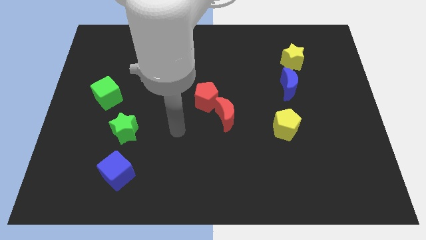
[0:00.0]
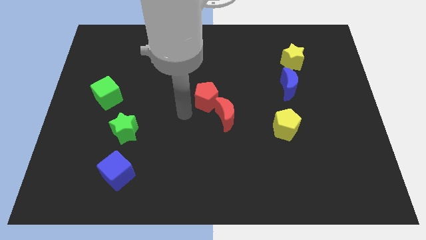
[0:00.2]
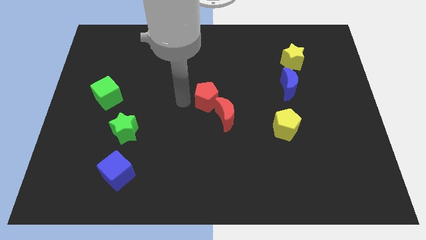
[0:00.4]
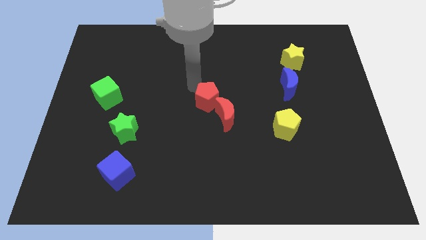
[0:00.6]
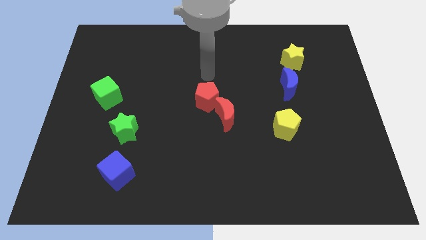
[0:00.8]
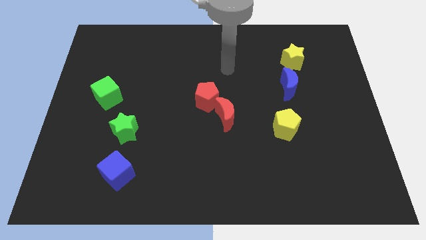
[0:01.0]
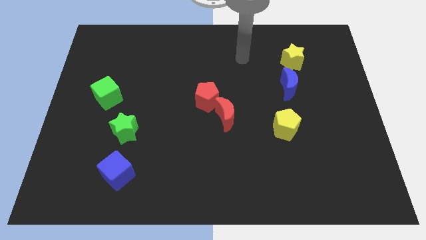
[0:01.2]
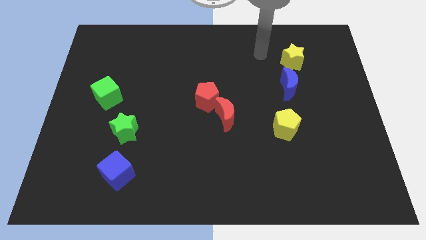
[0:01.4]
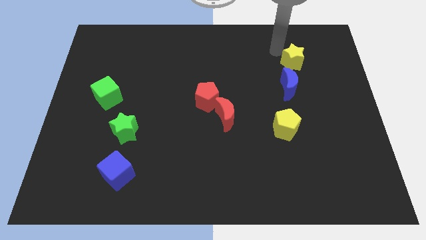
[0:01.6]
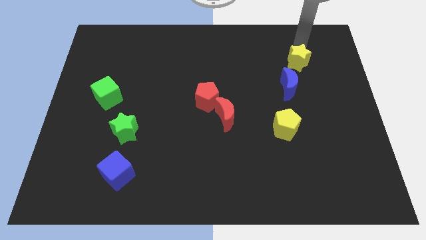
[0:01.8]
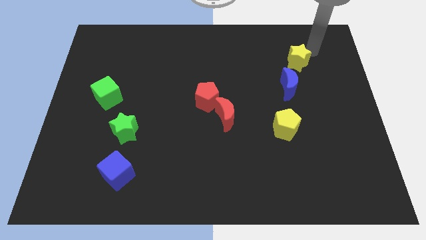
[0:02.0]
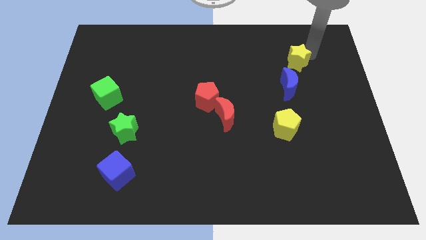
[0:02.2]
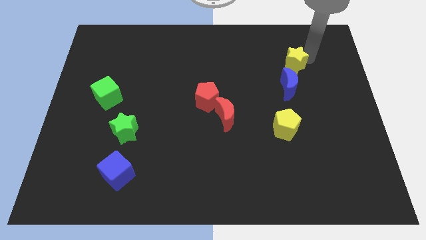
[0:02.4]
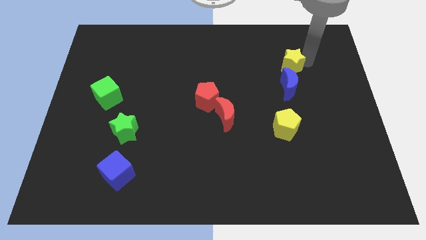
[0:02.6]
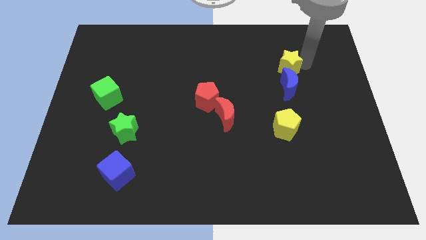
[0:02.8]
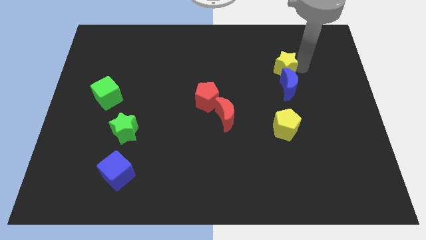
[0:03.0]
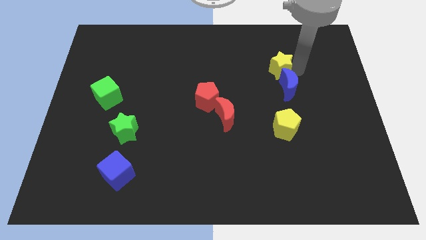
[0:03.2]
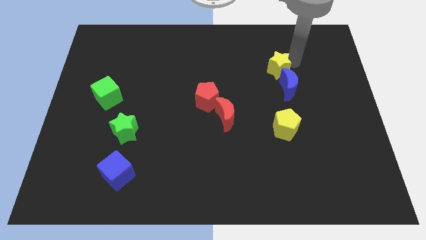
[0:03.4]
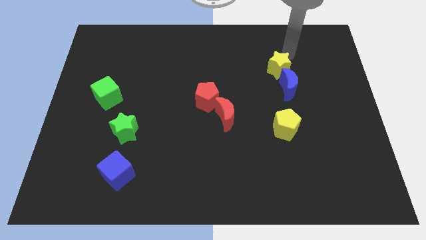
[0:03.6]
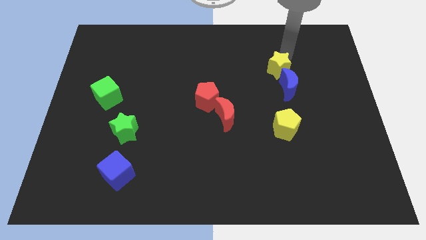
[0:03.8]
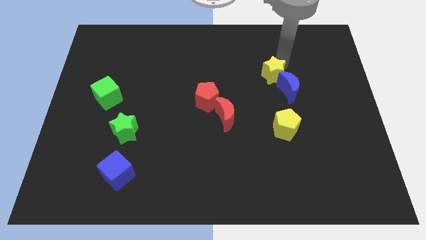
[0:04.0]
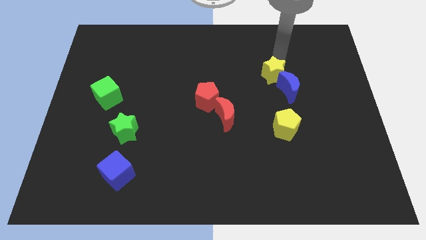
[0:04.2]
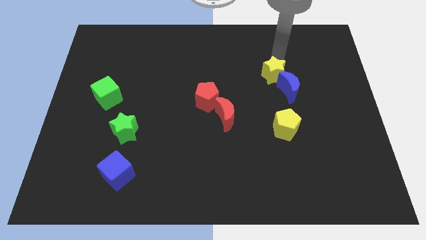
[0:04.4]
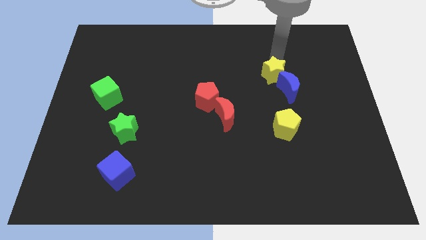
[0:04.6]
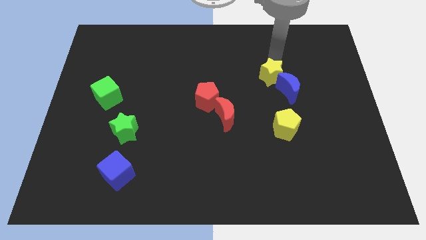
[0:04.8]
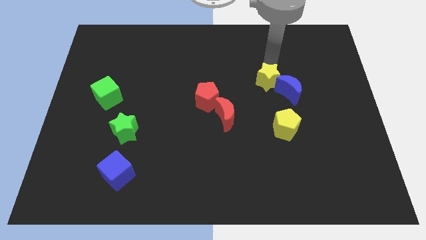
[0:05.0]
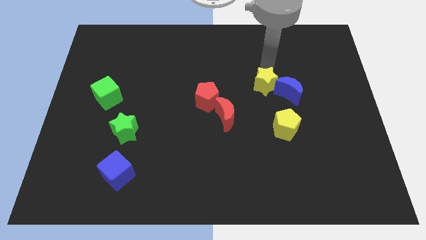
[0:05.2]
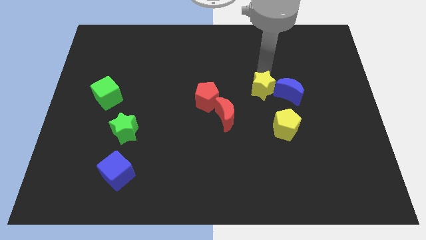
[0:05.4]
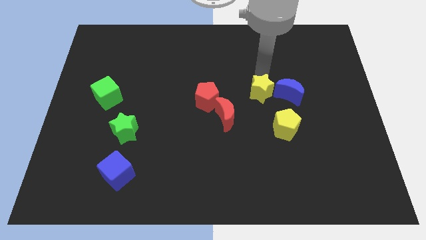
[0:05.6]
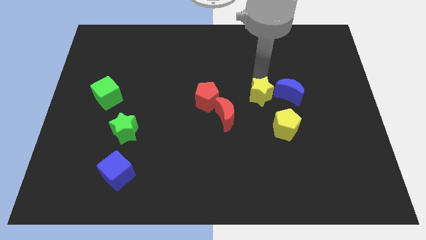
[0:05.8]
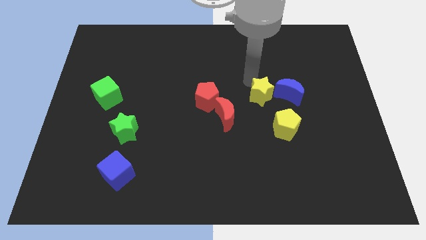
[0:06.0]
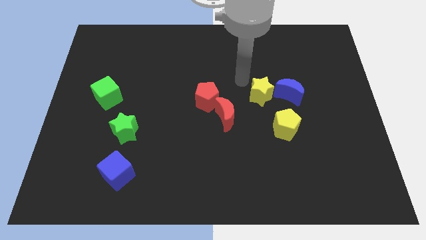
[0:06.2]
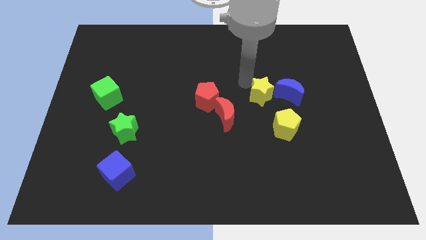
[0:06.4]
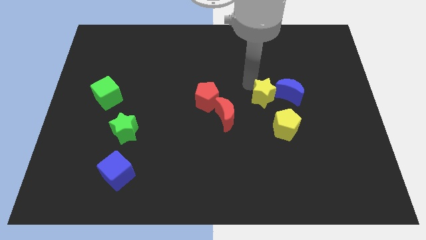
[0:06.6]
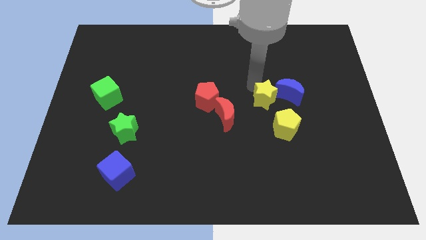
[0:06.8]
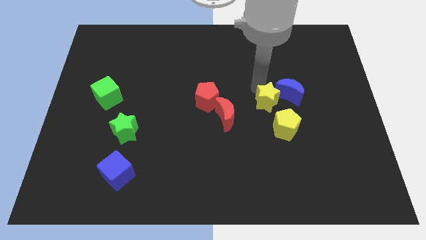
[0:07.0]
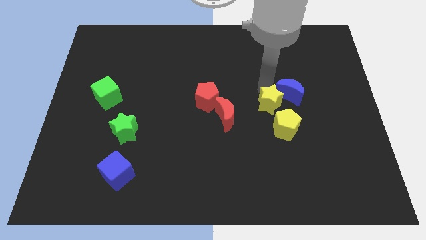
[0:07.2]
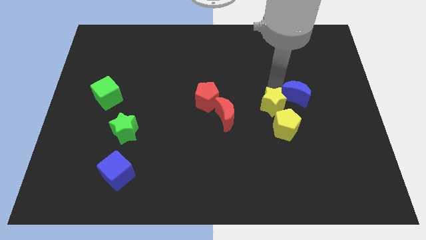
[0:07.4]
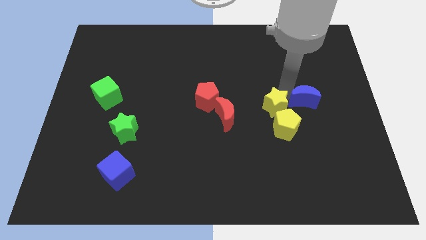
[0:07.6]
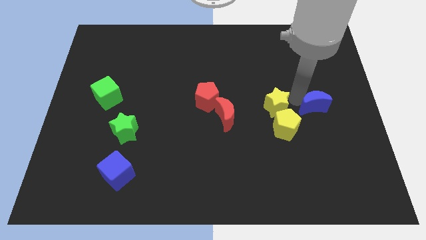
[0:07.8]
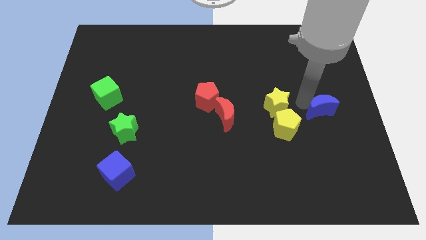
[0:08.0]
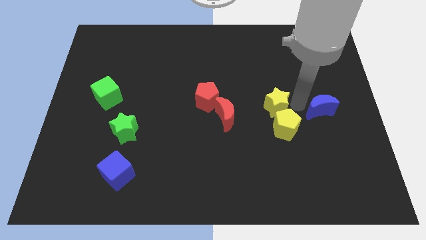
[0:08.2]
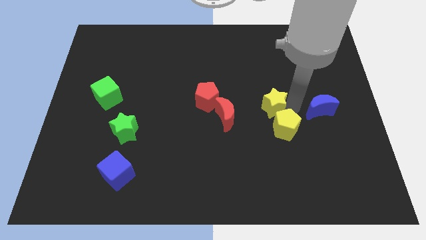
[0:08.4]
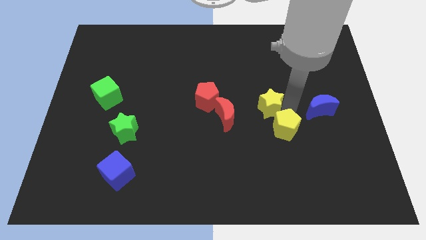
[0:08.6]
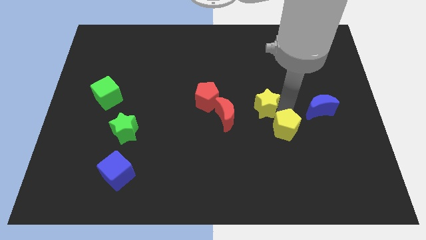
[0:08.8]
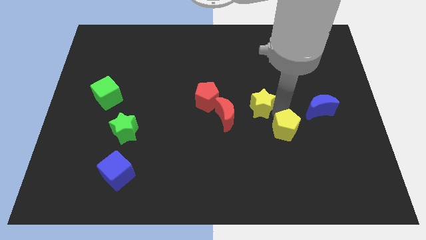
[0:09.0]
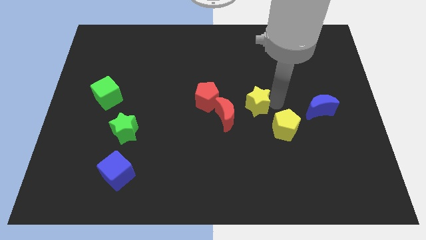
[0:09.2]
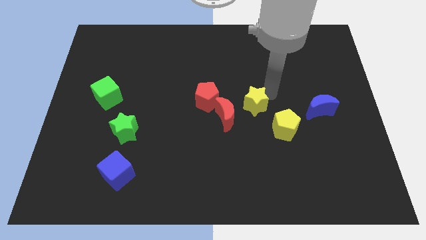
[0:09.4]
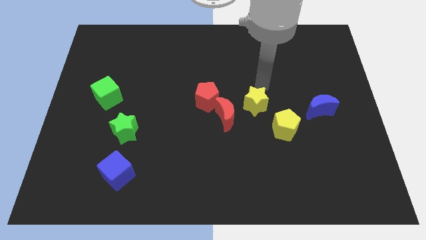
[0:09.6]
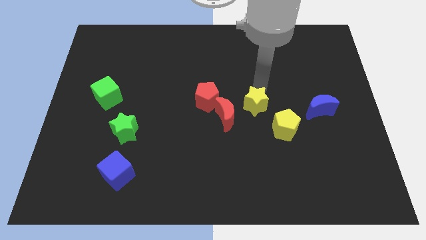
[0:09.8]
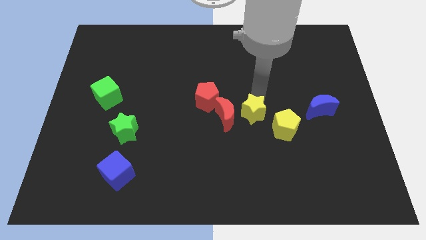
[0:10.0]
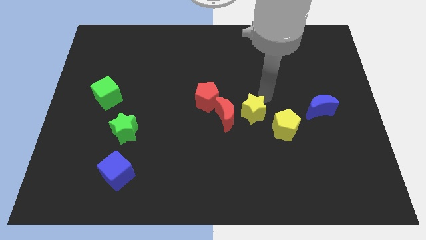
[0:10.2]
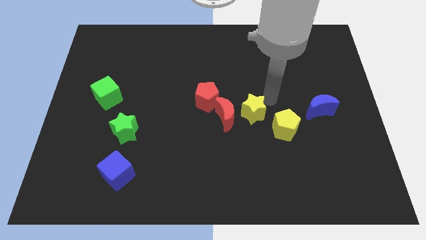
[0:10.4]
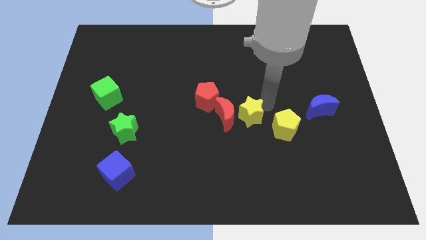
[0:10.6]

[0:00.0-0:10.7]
slide the yellow star down and then to the left

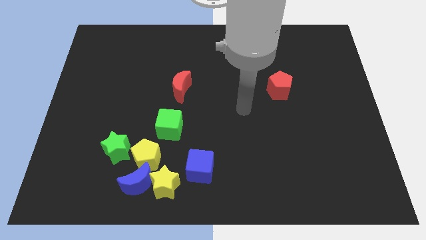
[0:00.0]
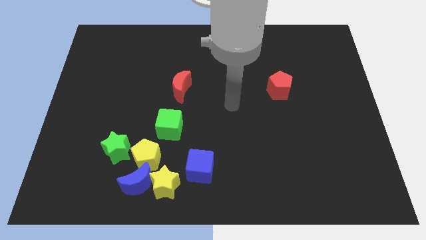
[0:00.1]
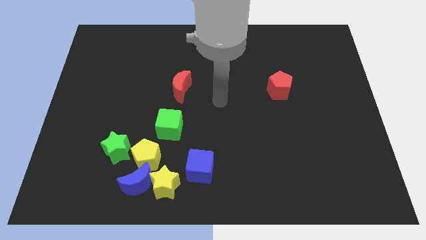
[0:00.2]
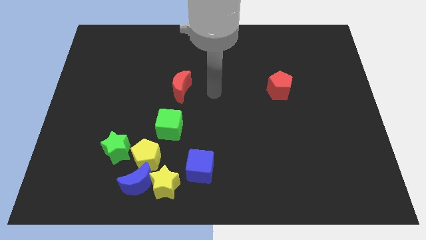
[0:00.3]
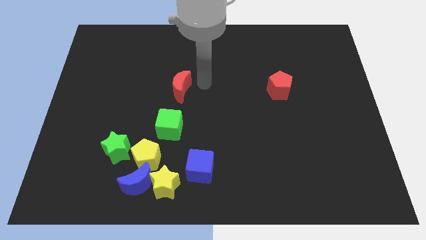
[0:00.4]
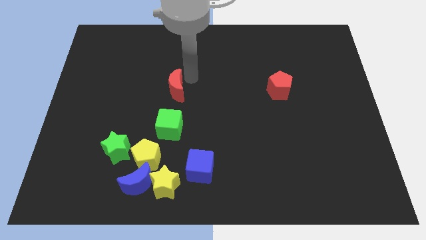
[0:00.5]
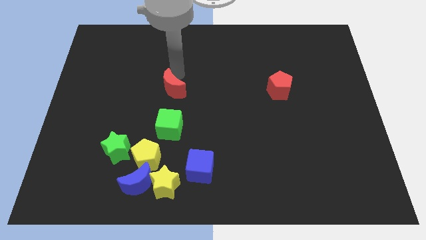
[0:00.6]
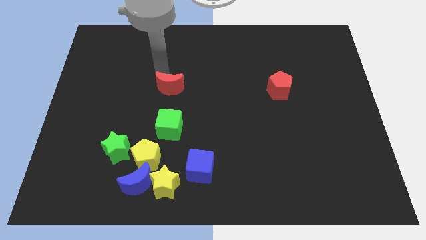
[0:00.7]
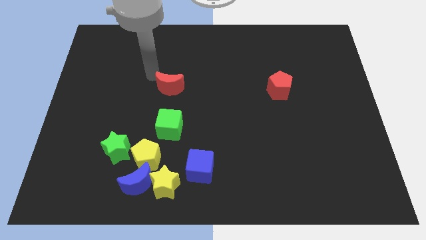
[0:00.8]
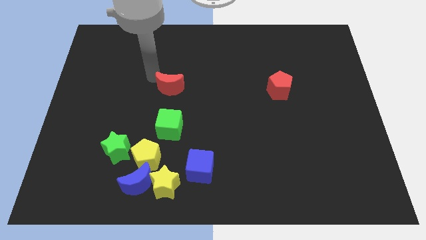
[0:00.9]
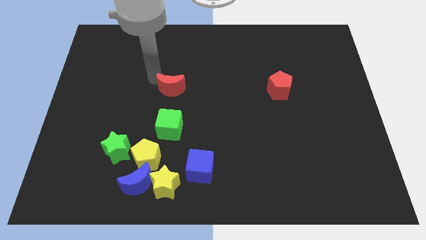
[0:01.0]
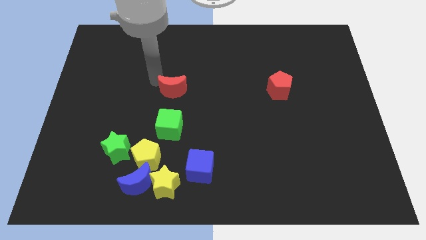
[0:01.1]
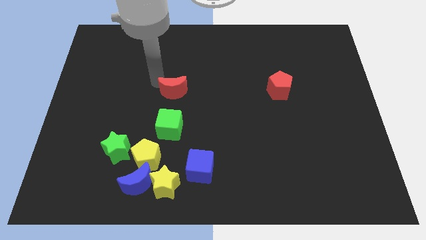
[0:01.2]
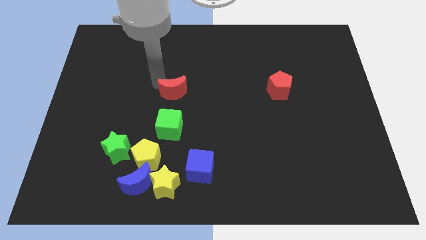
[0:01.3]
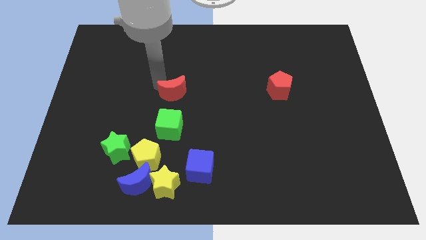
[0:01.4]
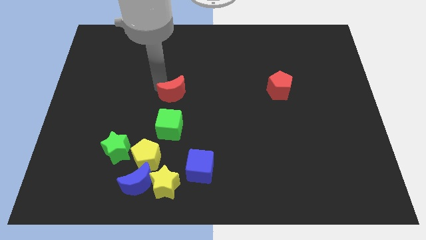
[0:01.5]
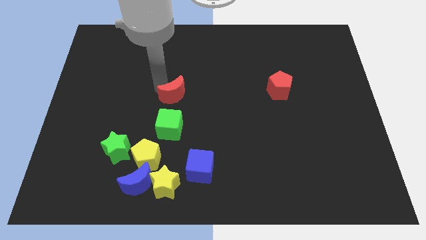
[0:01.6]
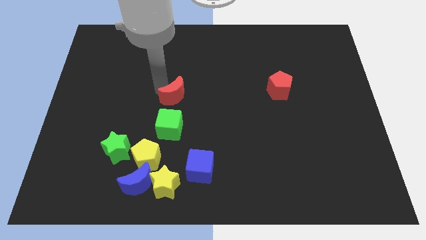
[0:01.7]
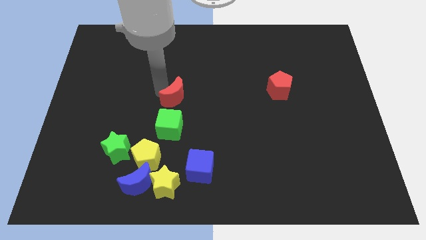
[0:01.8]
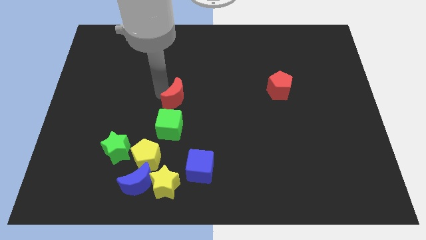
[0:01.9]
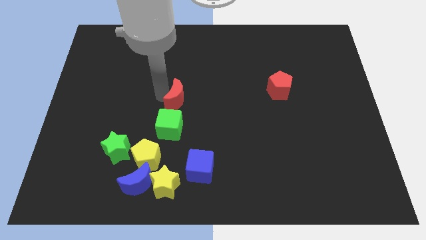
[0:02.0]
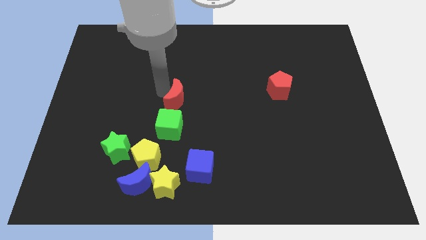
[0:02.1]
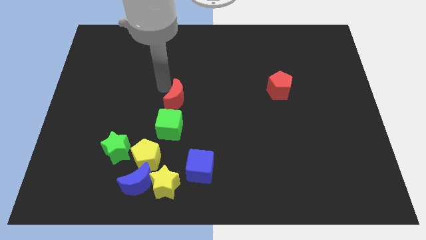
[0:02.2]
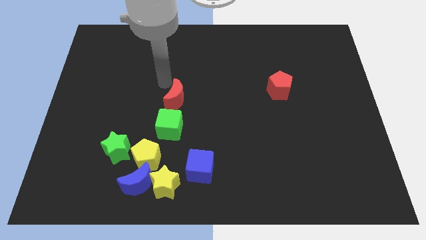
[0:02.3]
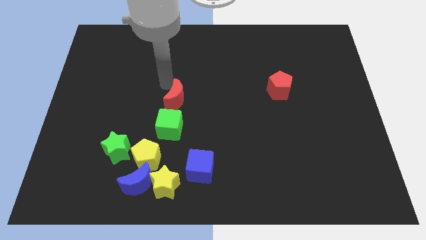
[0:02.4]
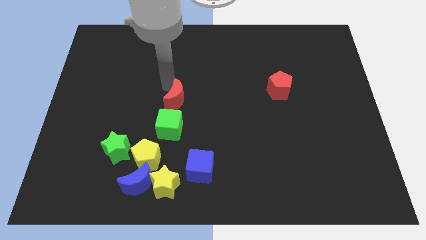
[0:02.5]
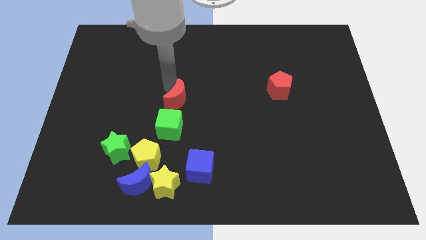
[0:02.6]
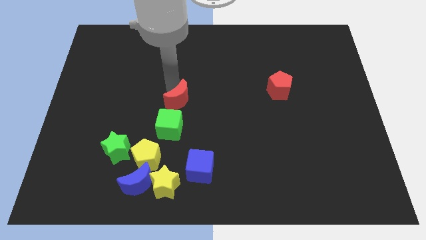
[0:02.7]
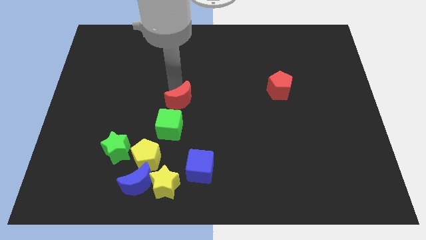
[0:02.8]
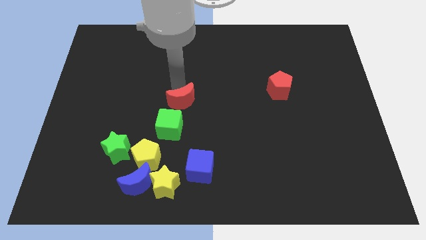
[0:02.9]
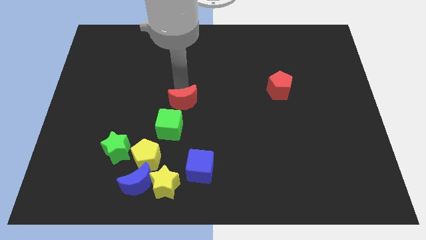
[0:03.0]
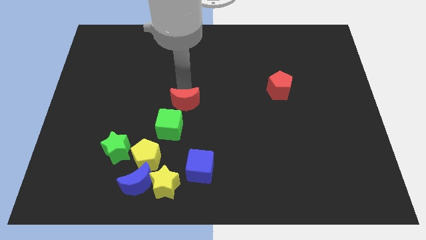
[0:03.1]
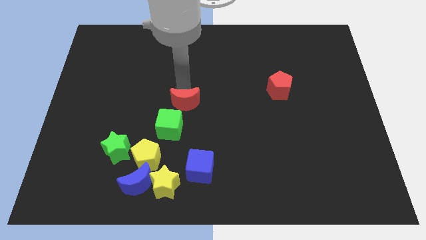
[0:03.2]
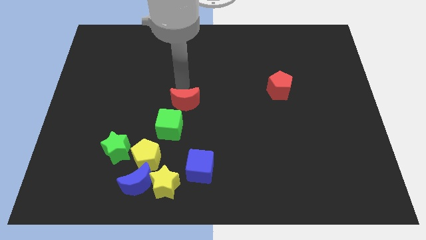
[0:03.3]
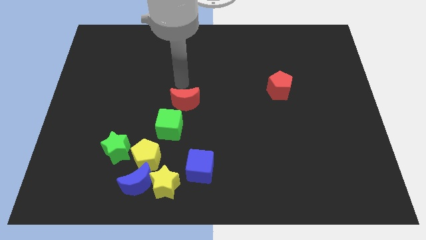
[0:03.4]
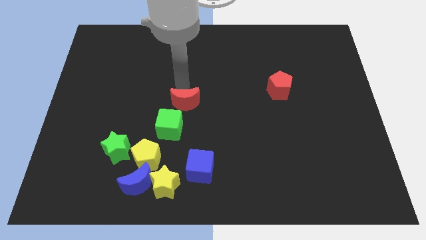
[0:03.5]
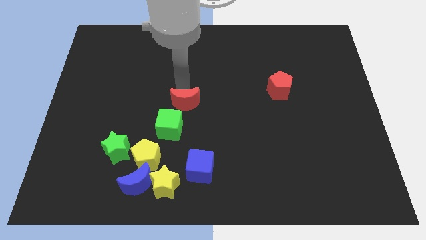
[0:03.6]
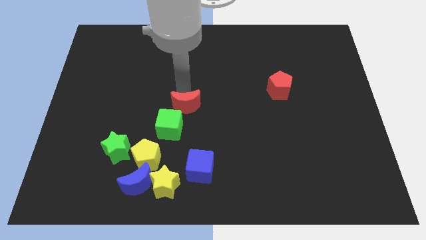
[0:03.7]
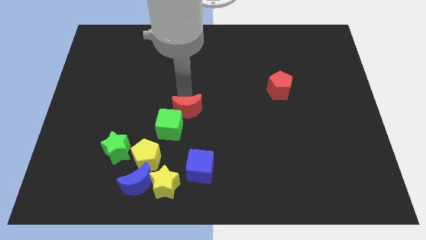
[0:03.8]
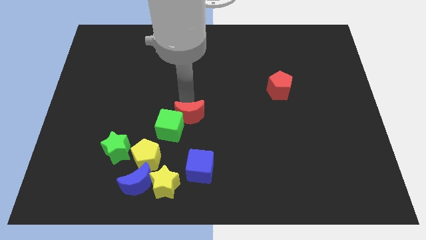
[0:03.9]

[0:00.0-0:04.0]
slide the red moon down a little bit
